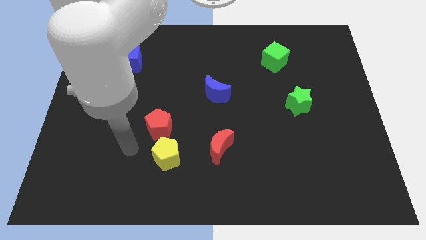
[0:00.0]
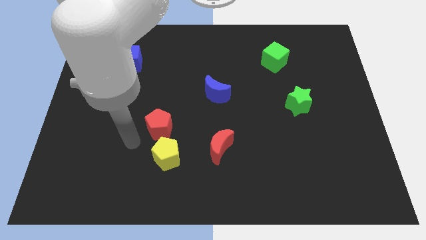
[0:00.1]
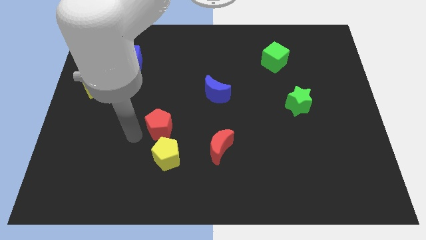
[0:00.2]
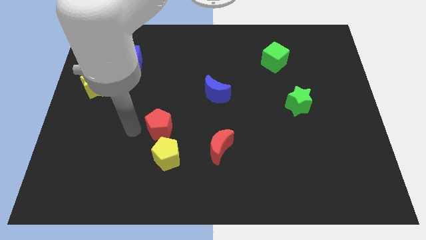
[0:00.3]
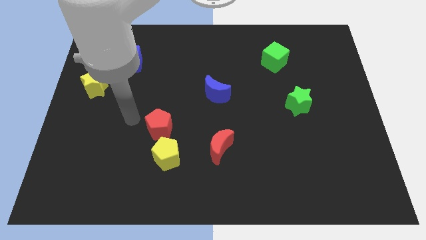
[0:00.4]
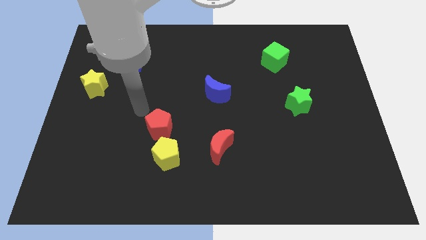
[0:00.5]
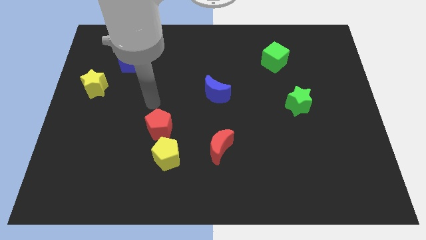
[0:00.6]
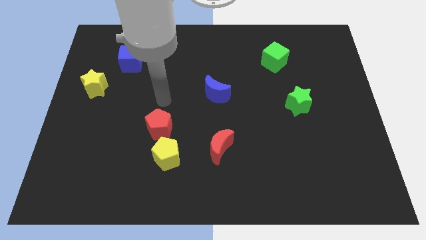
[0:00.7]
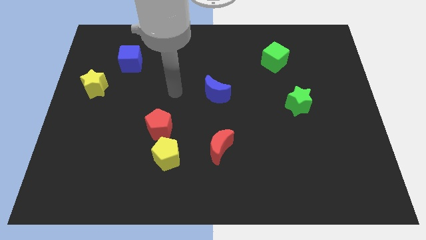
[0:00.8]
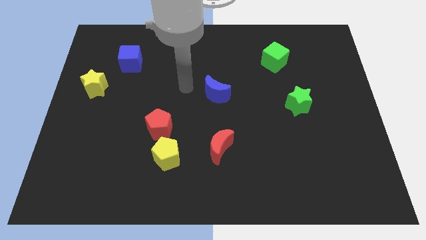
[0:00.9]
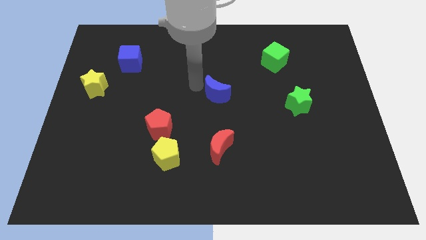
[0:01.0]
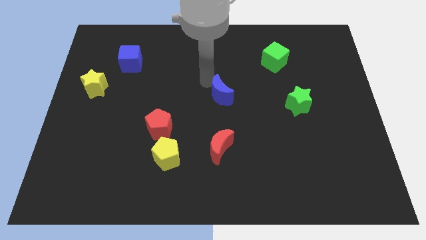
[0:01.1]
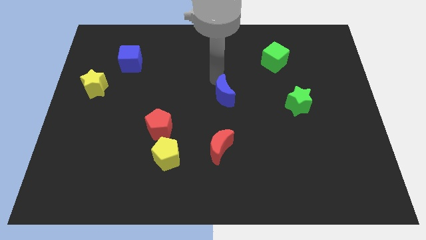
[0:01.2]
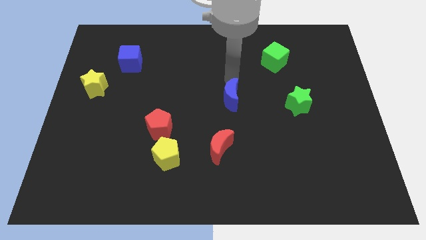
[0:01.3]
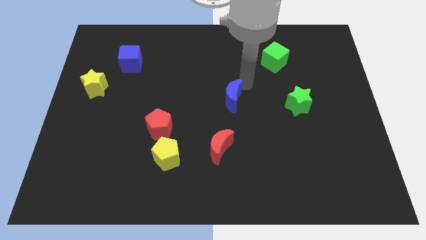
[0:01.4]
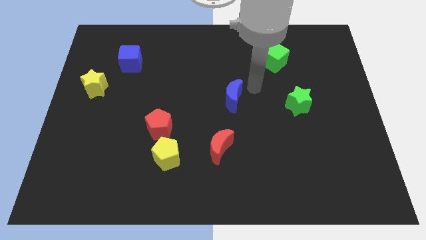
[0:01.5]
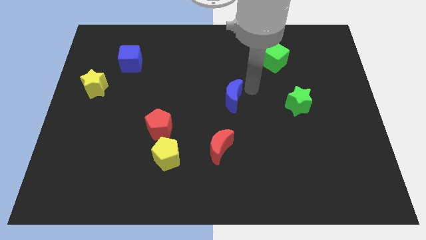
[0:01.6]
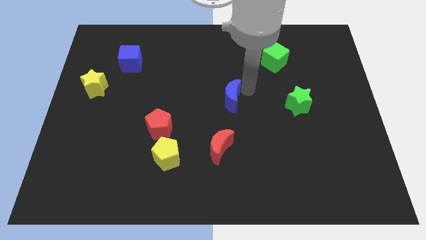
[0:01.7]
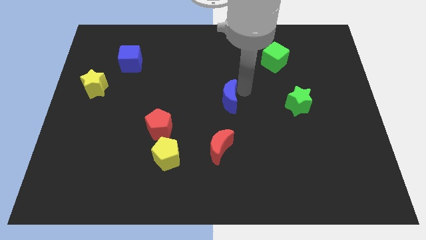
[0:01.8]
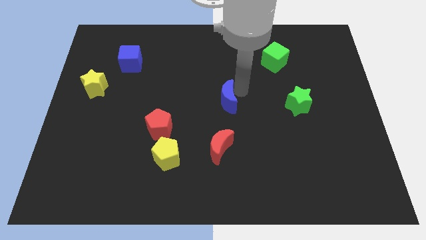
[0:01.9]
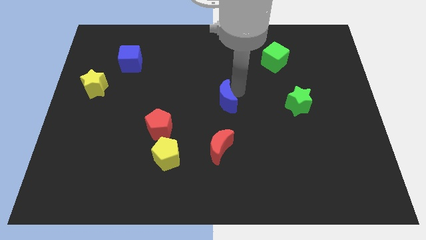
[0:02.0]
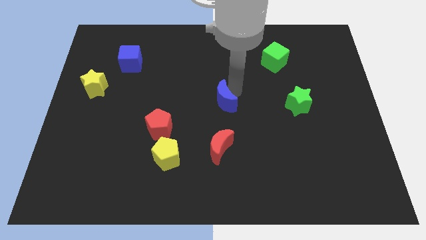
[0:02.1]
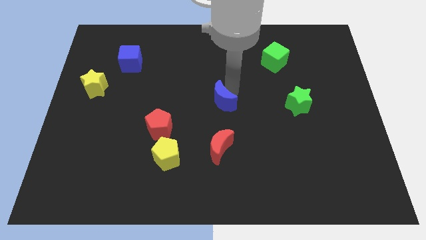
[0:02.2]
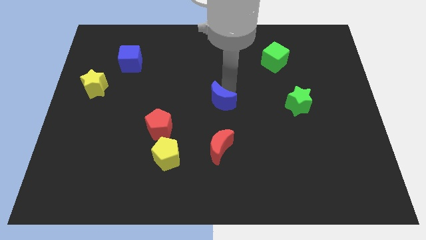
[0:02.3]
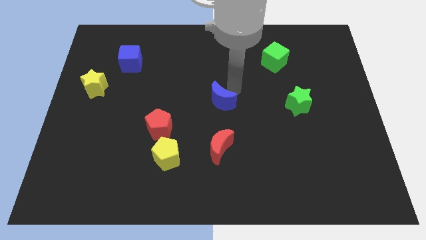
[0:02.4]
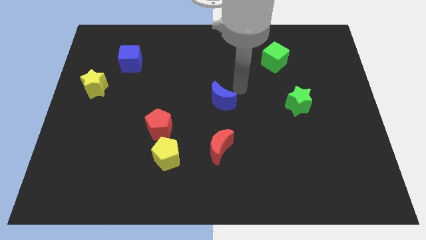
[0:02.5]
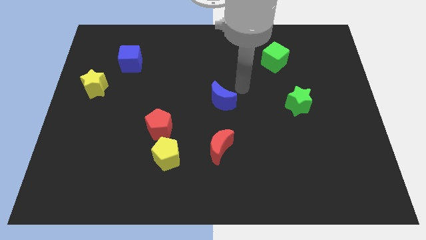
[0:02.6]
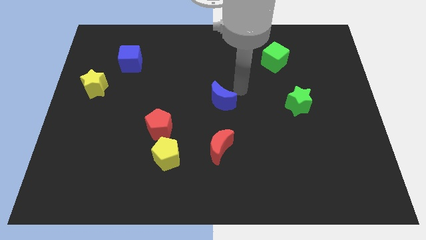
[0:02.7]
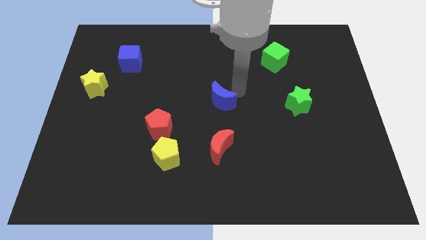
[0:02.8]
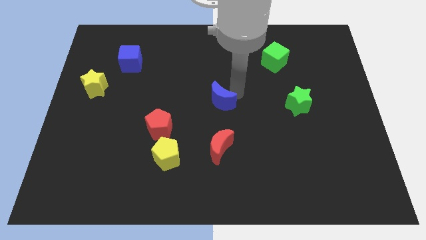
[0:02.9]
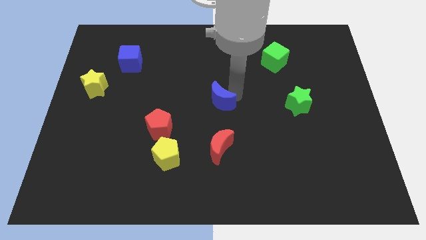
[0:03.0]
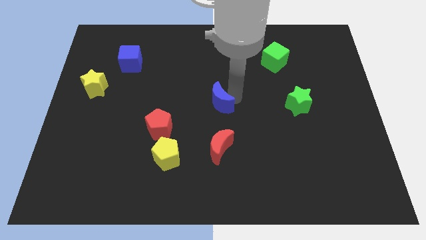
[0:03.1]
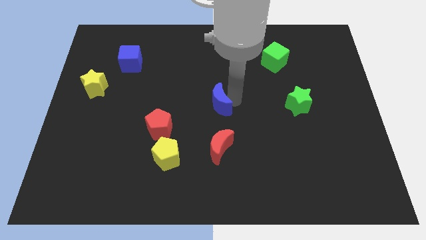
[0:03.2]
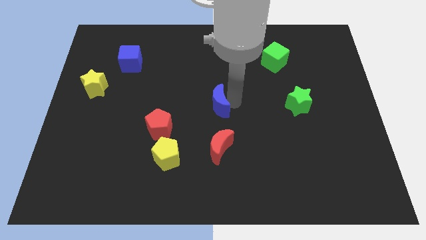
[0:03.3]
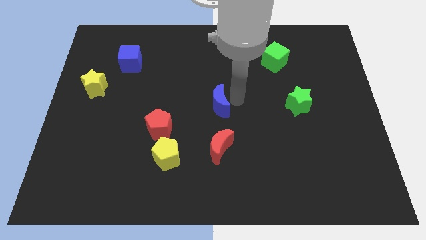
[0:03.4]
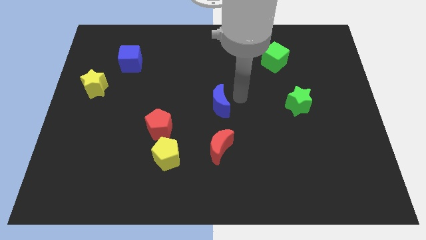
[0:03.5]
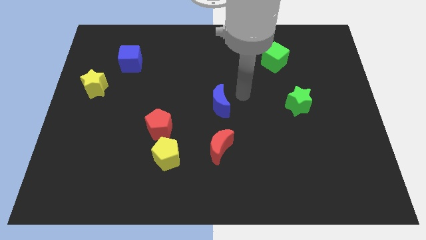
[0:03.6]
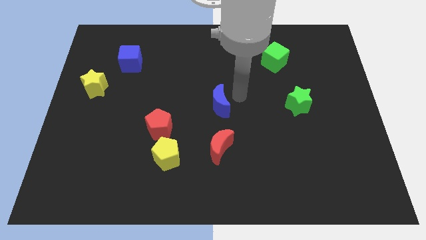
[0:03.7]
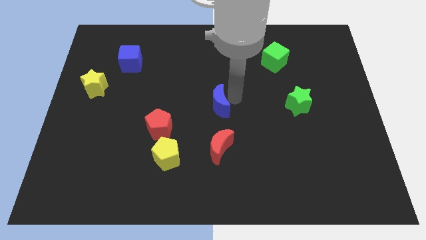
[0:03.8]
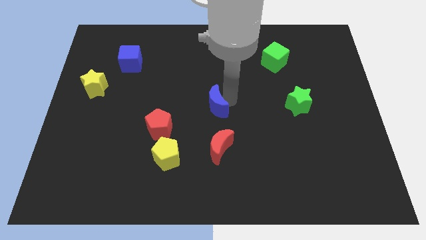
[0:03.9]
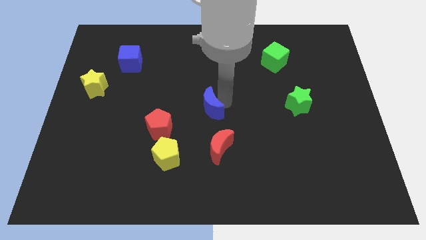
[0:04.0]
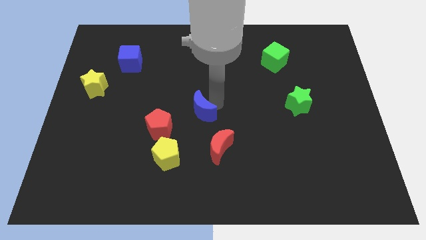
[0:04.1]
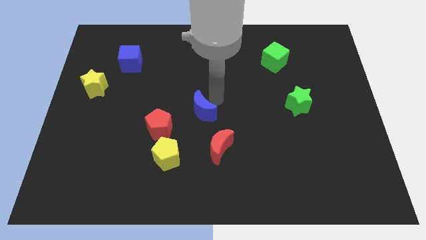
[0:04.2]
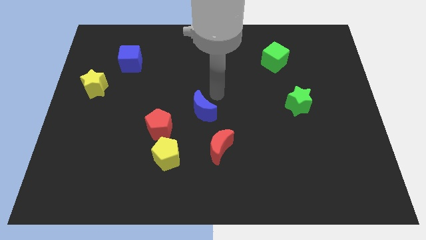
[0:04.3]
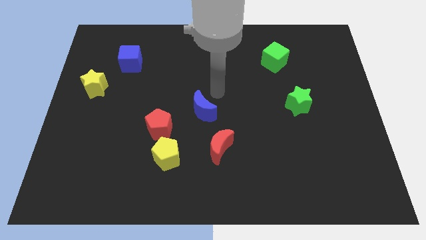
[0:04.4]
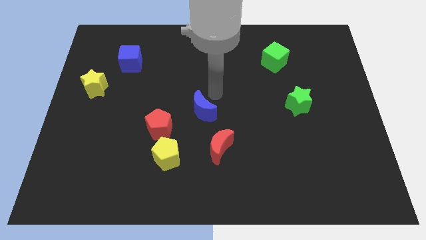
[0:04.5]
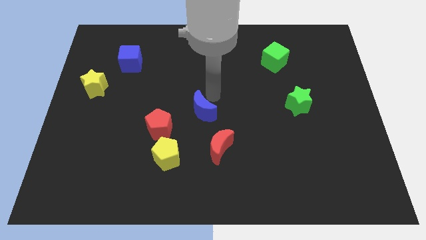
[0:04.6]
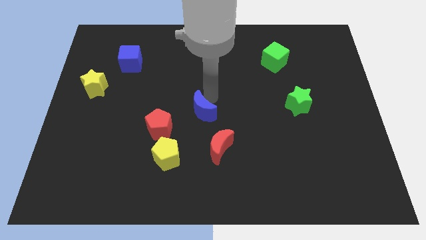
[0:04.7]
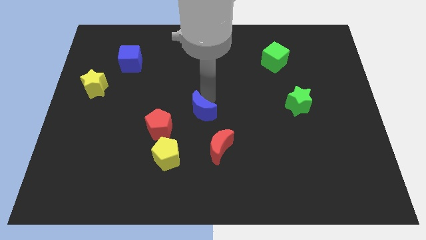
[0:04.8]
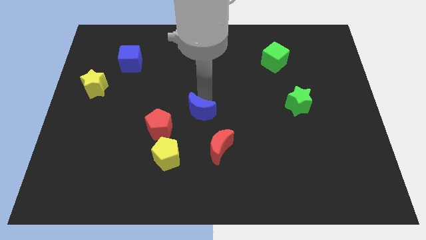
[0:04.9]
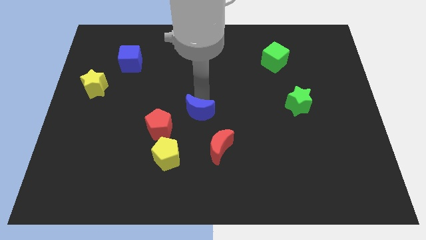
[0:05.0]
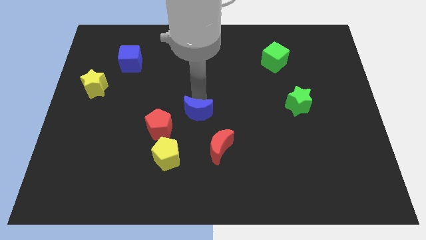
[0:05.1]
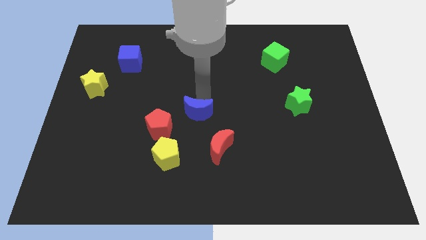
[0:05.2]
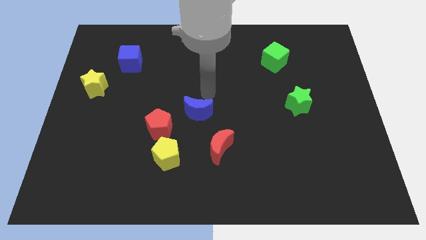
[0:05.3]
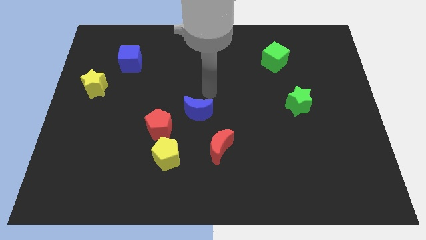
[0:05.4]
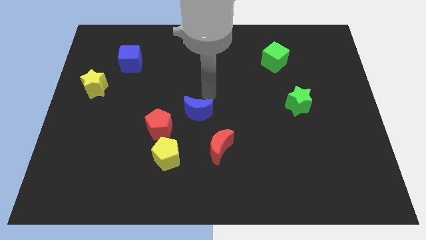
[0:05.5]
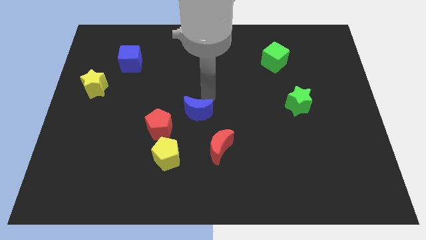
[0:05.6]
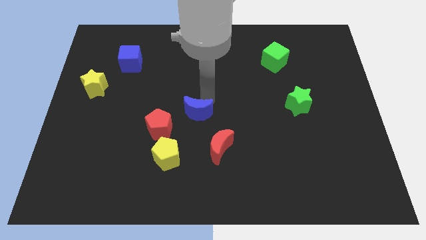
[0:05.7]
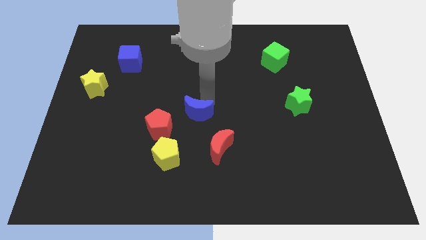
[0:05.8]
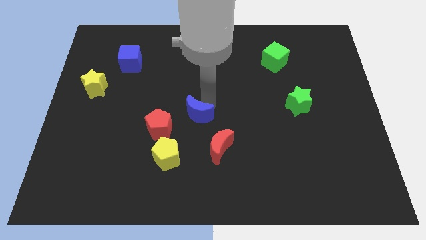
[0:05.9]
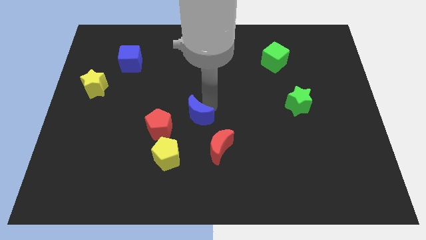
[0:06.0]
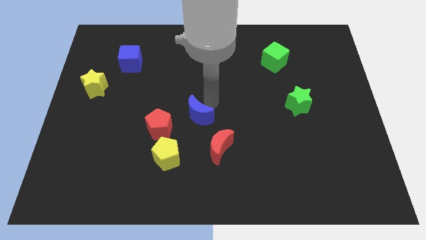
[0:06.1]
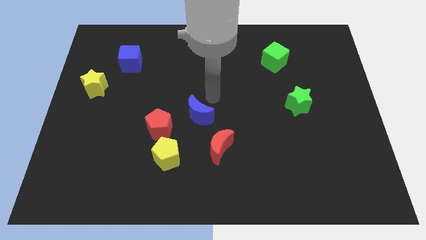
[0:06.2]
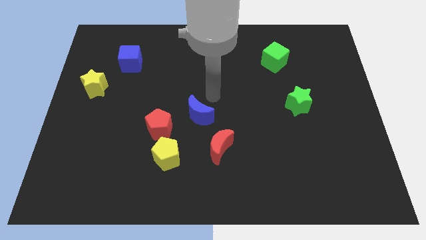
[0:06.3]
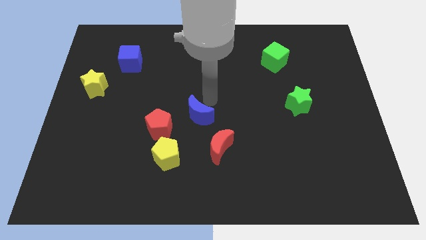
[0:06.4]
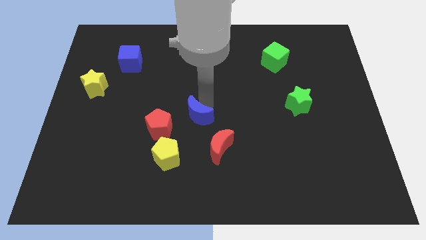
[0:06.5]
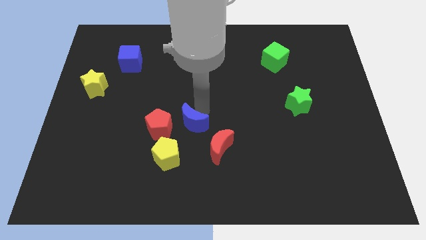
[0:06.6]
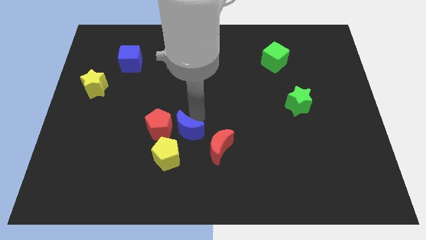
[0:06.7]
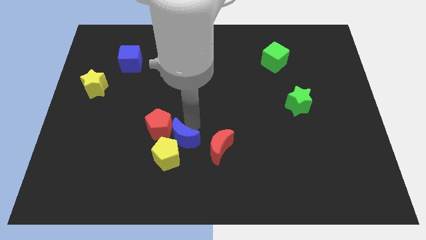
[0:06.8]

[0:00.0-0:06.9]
put the blue moon towards the yellow pentagon

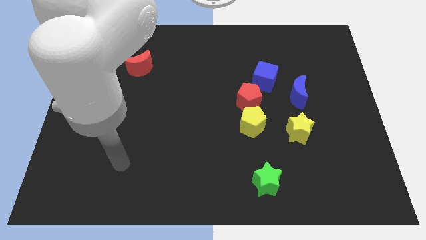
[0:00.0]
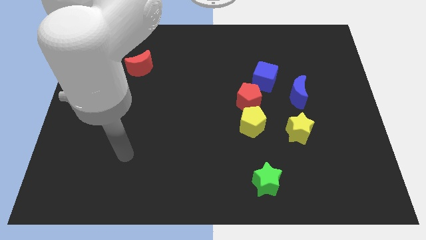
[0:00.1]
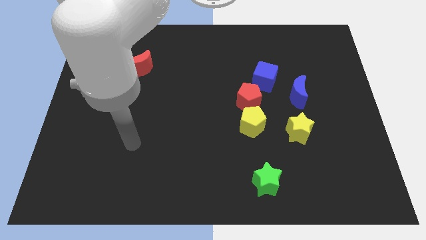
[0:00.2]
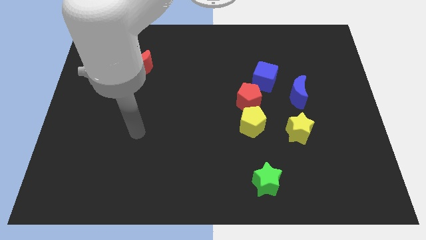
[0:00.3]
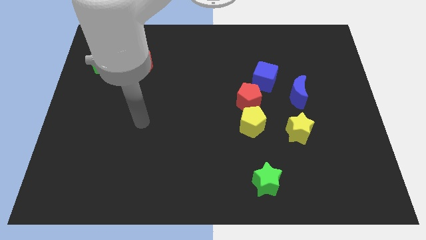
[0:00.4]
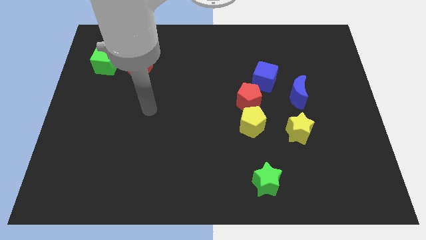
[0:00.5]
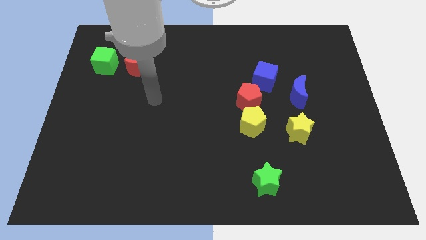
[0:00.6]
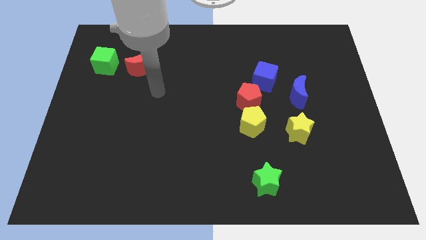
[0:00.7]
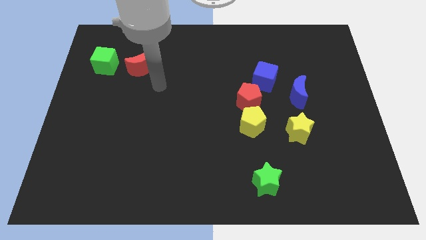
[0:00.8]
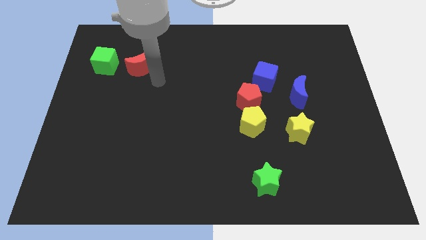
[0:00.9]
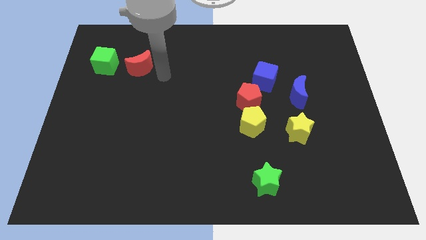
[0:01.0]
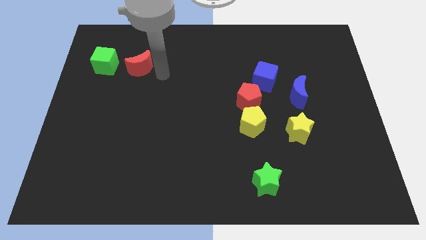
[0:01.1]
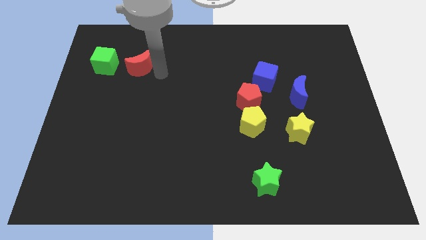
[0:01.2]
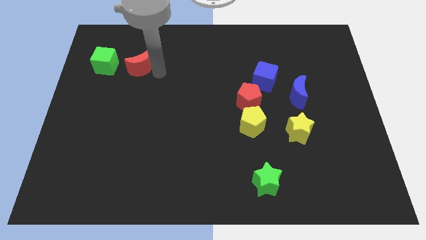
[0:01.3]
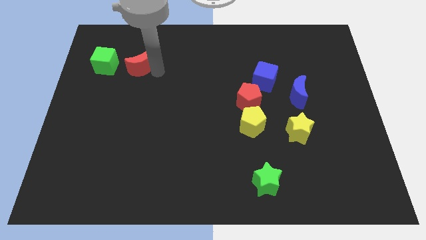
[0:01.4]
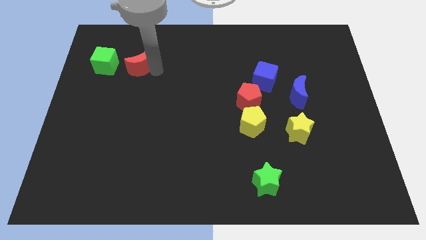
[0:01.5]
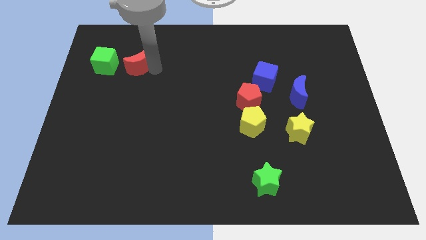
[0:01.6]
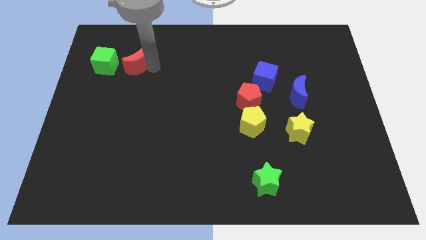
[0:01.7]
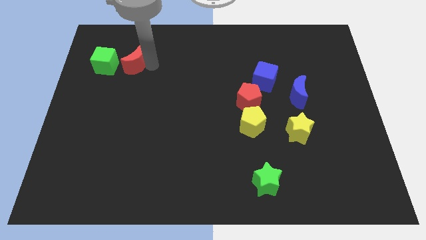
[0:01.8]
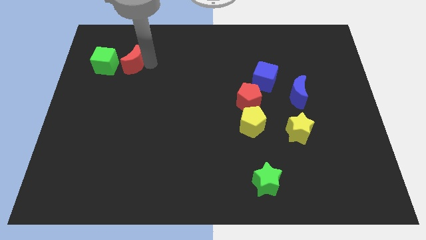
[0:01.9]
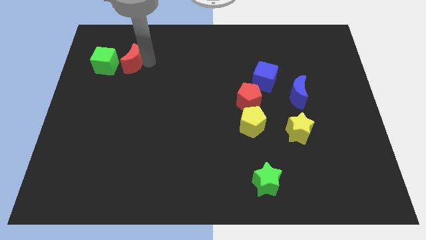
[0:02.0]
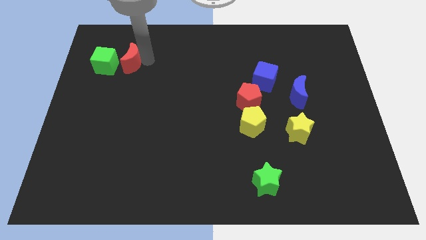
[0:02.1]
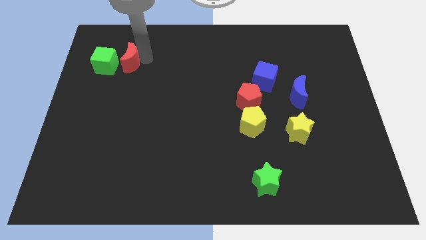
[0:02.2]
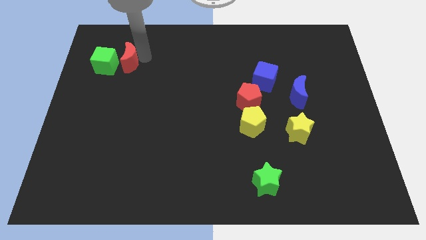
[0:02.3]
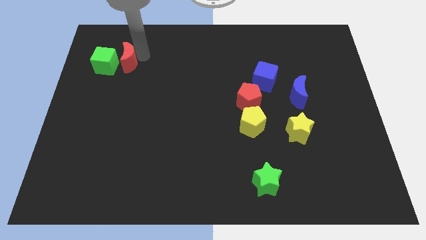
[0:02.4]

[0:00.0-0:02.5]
put the red moon towards the green cube
